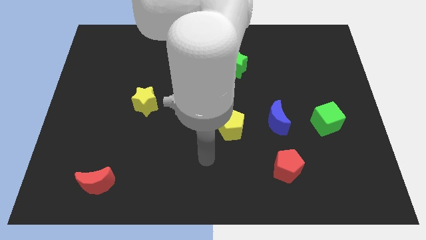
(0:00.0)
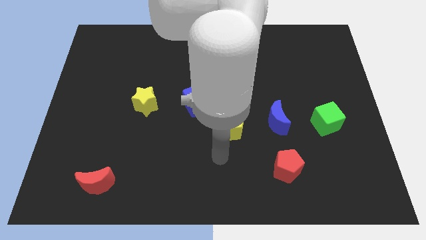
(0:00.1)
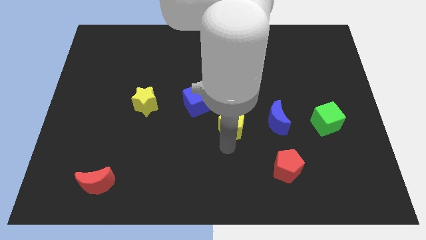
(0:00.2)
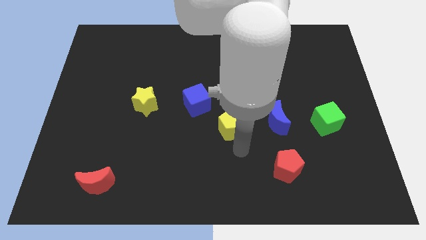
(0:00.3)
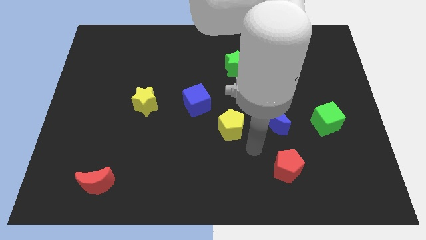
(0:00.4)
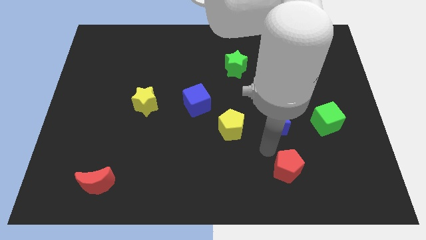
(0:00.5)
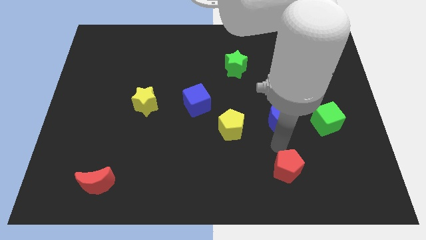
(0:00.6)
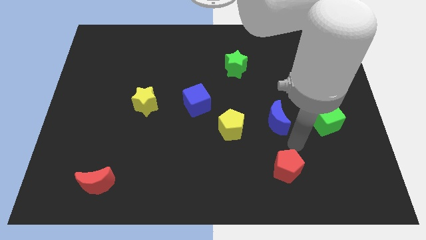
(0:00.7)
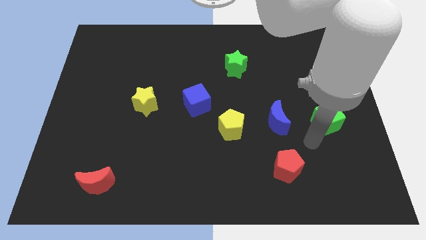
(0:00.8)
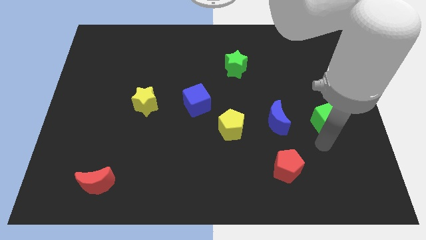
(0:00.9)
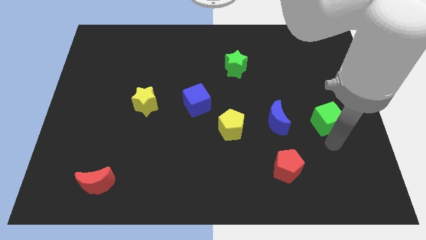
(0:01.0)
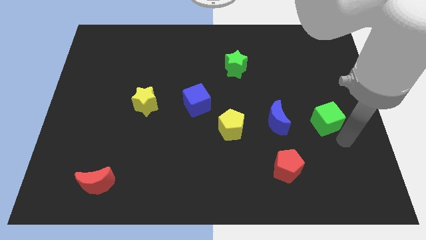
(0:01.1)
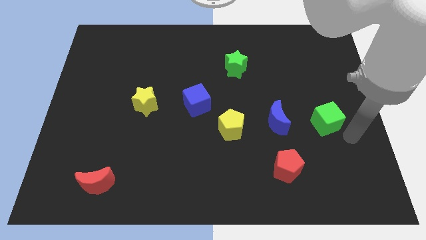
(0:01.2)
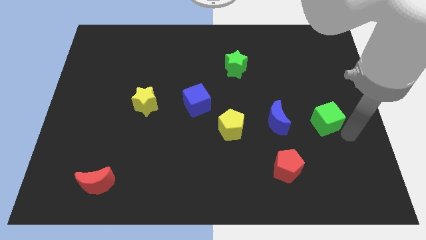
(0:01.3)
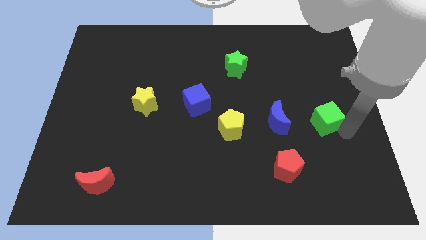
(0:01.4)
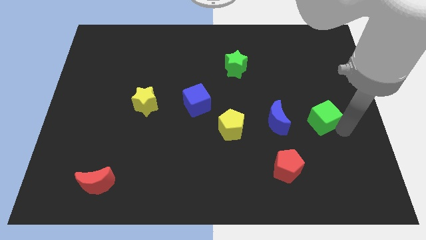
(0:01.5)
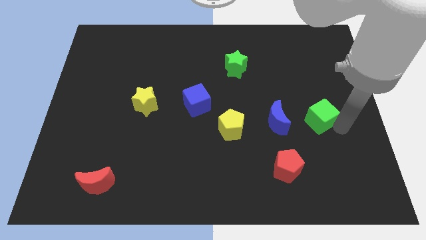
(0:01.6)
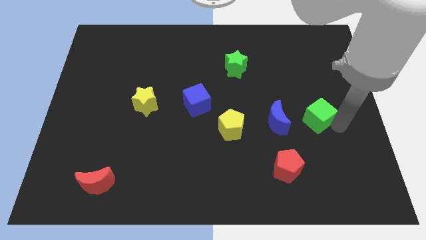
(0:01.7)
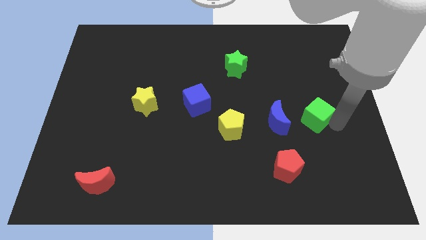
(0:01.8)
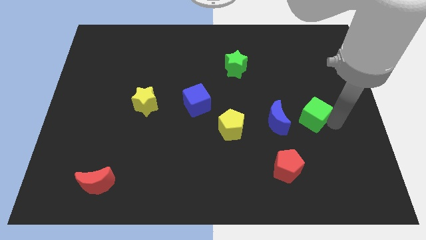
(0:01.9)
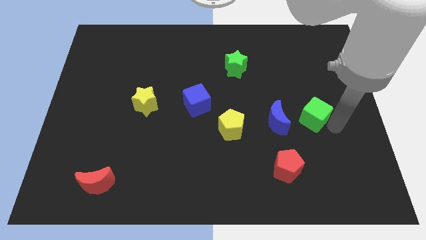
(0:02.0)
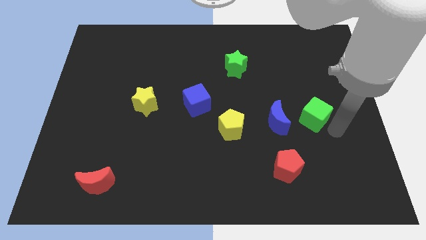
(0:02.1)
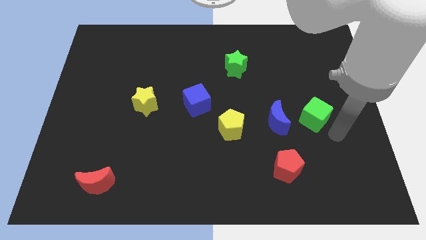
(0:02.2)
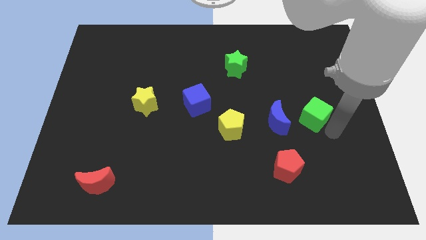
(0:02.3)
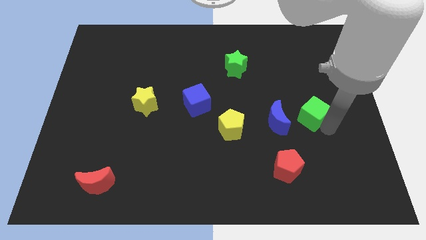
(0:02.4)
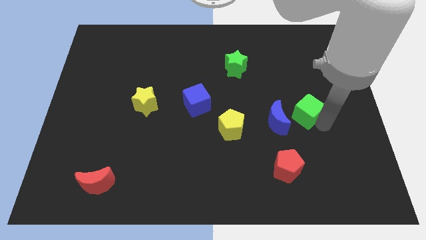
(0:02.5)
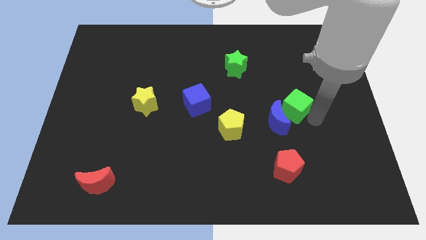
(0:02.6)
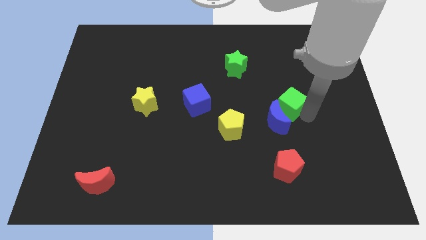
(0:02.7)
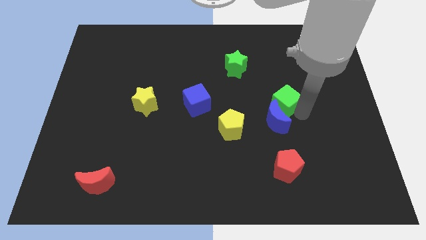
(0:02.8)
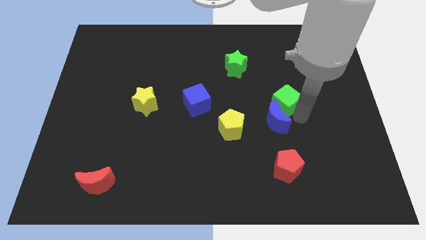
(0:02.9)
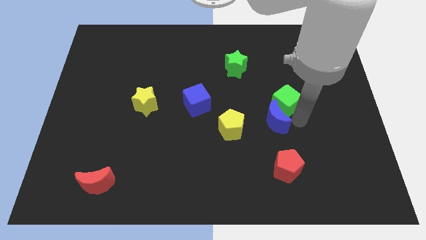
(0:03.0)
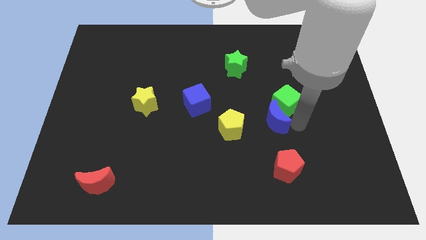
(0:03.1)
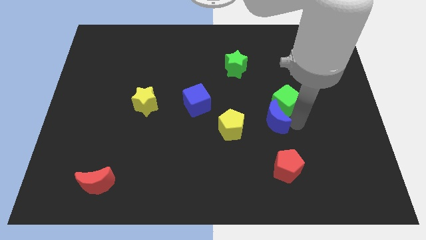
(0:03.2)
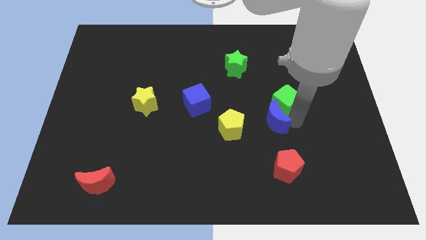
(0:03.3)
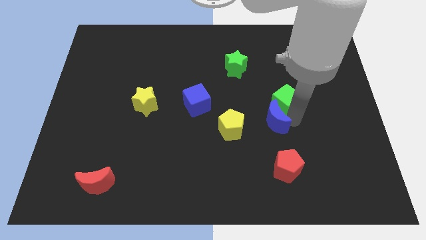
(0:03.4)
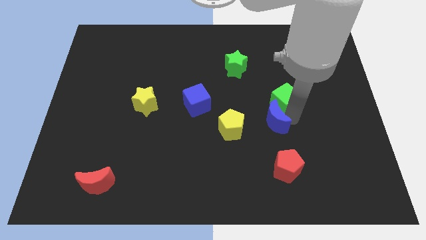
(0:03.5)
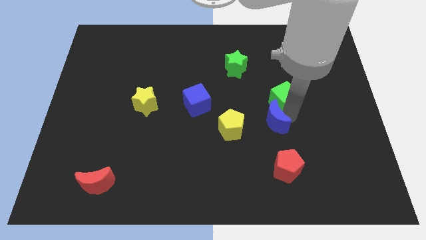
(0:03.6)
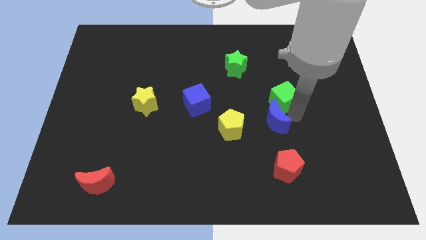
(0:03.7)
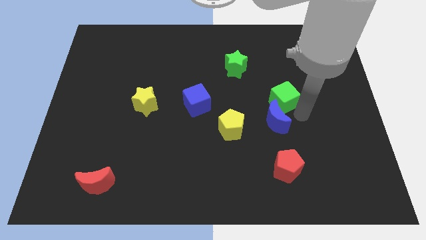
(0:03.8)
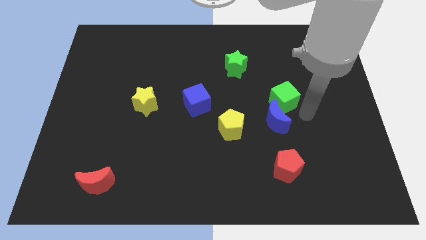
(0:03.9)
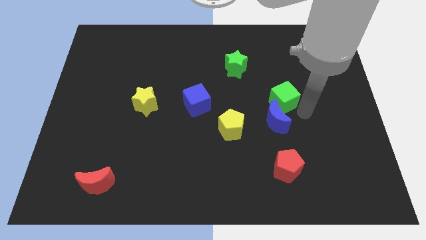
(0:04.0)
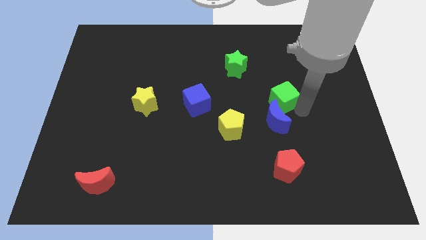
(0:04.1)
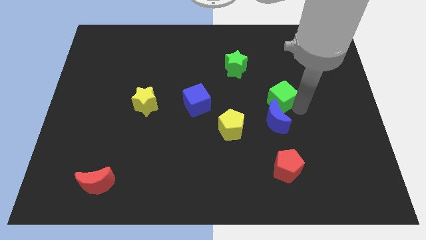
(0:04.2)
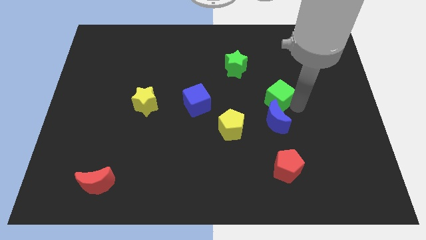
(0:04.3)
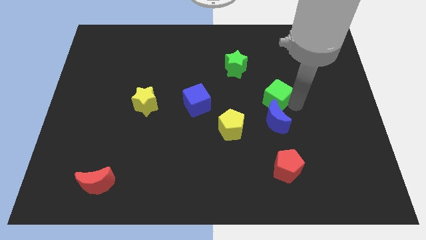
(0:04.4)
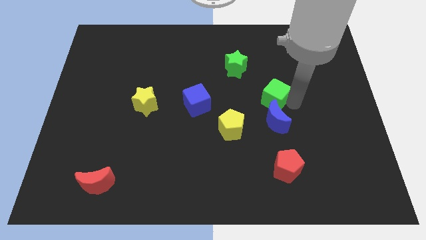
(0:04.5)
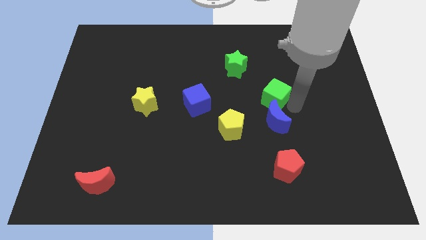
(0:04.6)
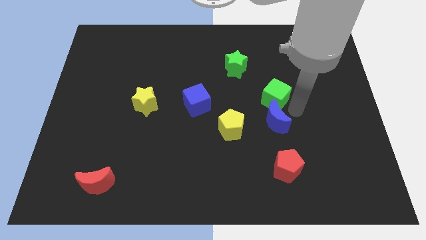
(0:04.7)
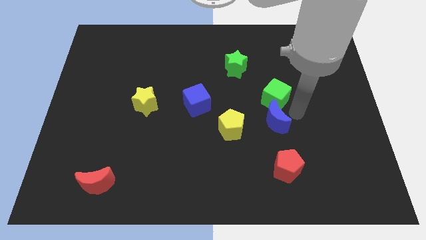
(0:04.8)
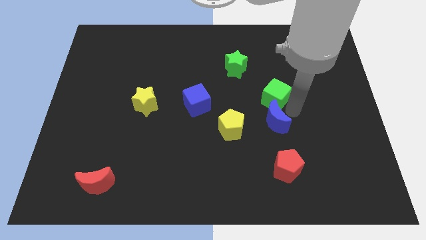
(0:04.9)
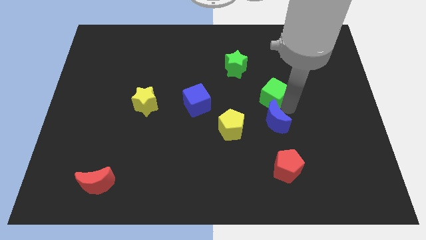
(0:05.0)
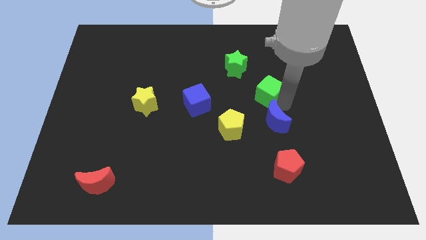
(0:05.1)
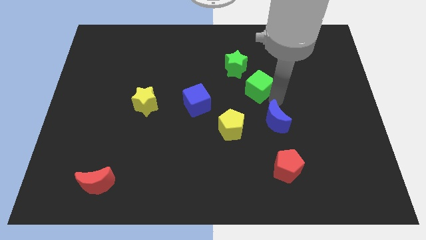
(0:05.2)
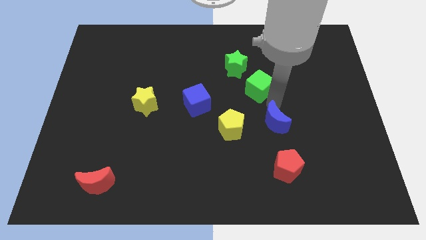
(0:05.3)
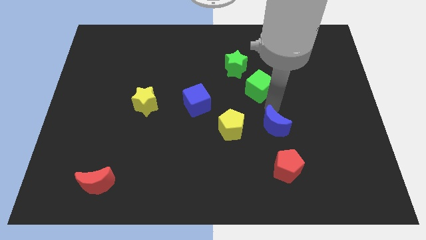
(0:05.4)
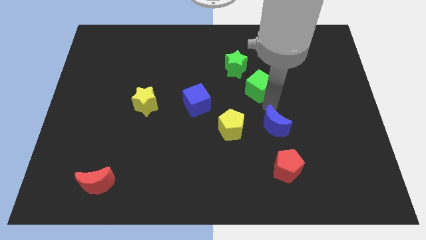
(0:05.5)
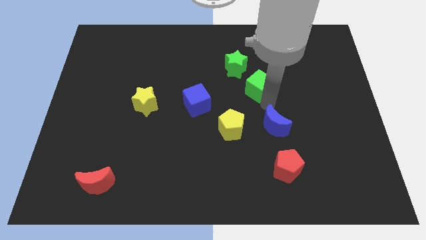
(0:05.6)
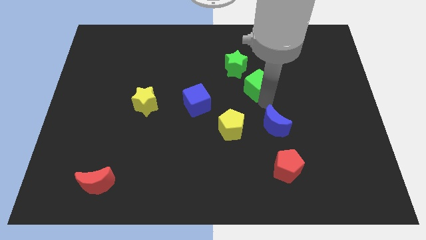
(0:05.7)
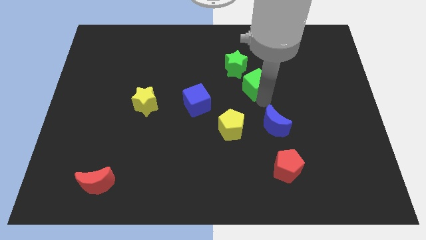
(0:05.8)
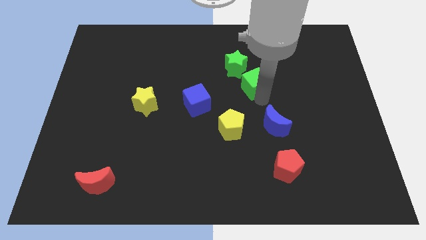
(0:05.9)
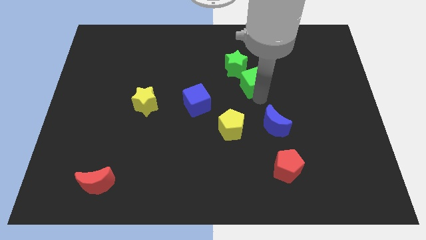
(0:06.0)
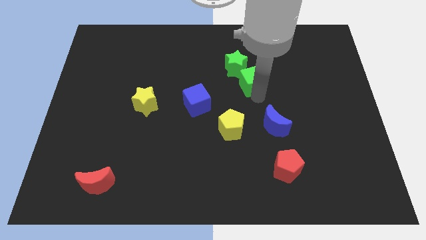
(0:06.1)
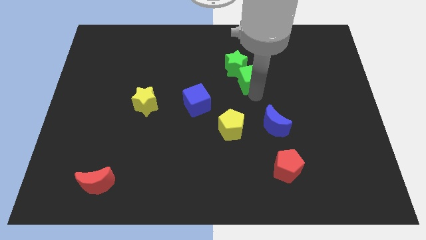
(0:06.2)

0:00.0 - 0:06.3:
move the green cube close to the green star
